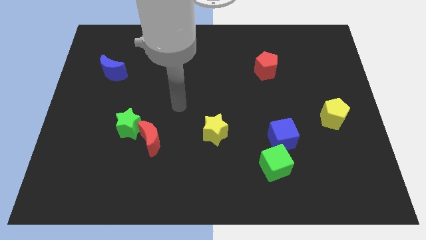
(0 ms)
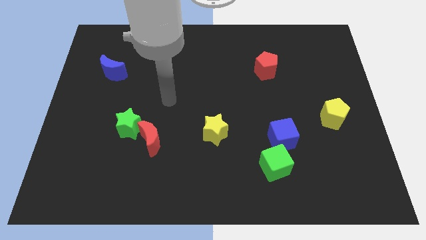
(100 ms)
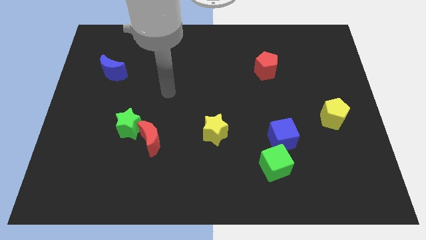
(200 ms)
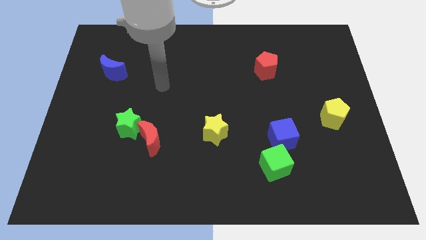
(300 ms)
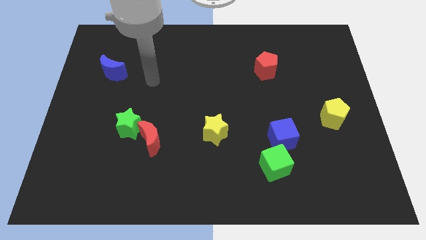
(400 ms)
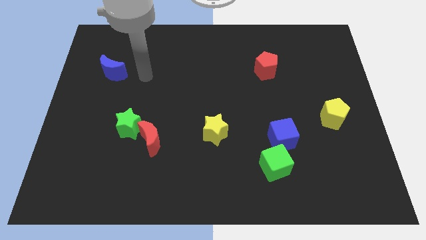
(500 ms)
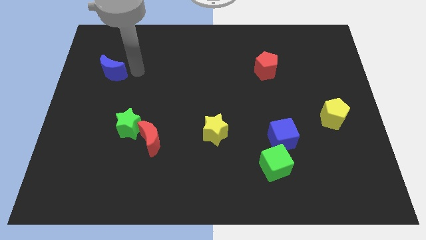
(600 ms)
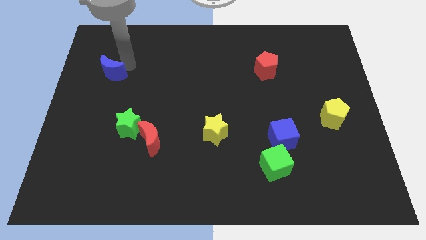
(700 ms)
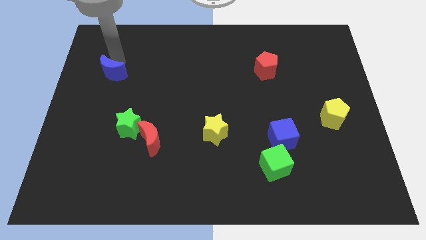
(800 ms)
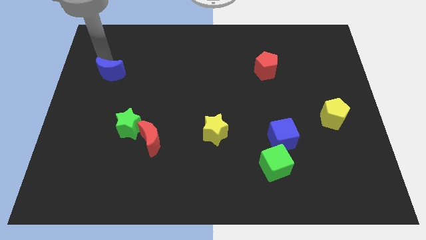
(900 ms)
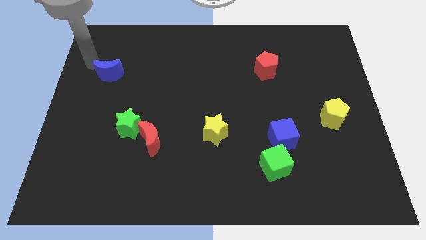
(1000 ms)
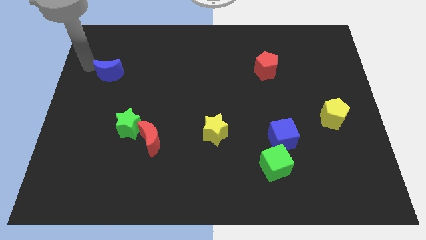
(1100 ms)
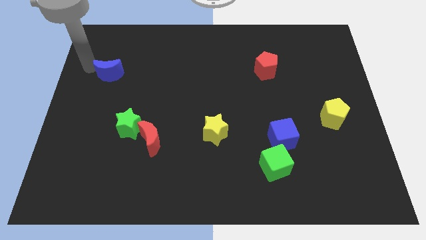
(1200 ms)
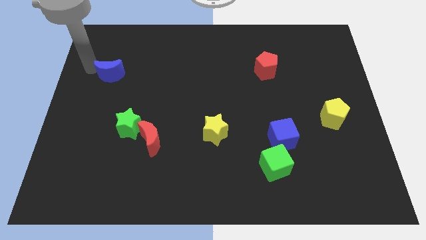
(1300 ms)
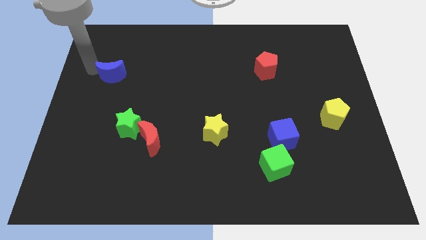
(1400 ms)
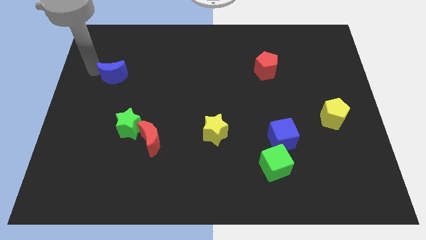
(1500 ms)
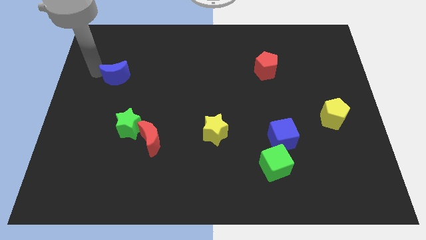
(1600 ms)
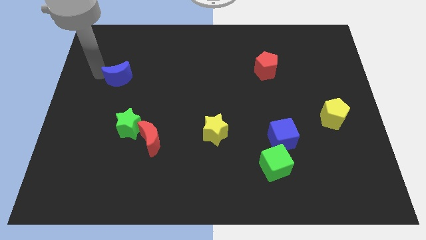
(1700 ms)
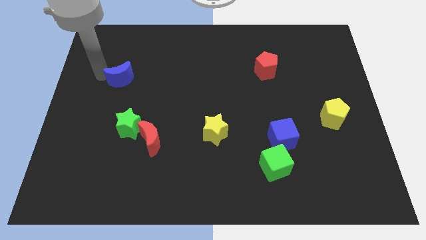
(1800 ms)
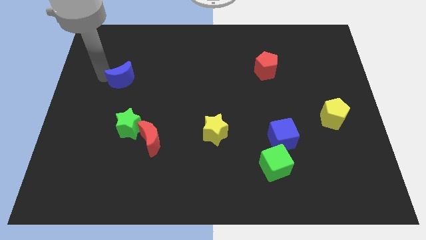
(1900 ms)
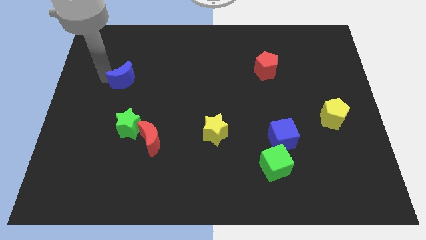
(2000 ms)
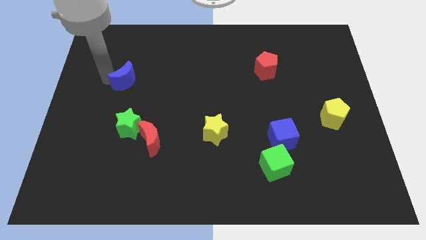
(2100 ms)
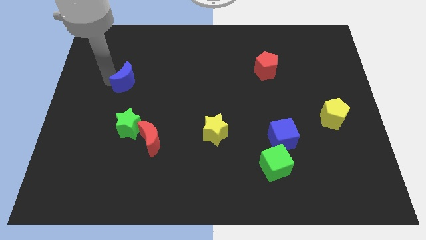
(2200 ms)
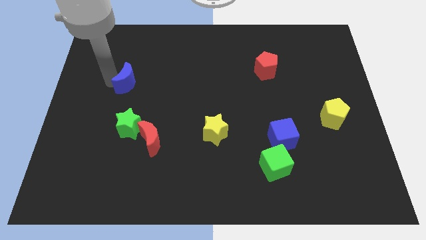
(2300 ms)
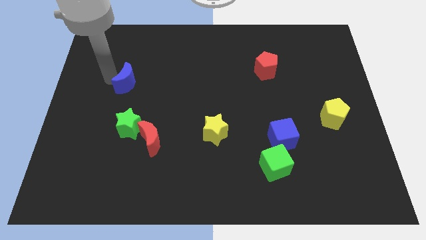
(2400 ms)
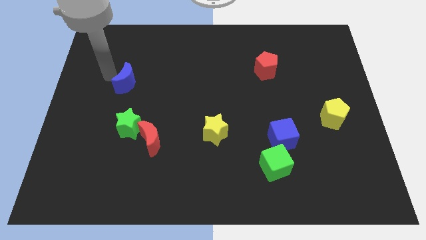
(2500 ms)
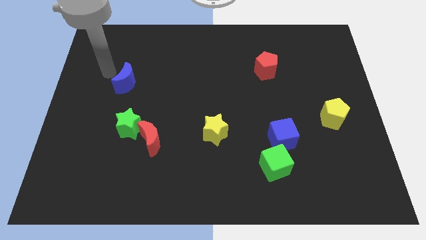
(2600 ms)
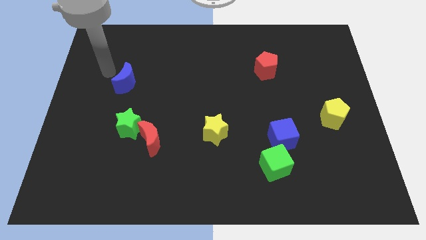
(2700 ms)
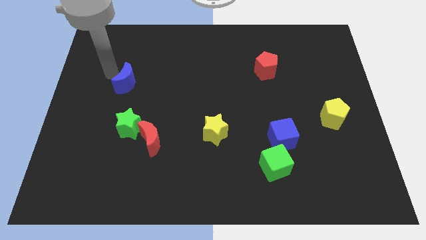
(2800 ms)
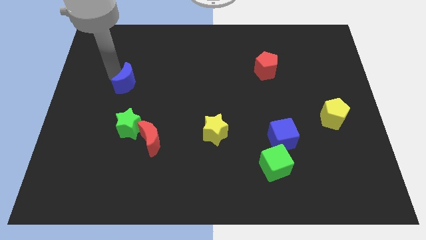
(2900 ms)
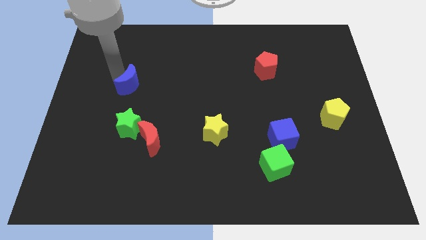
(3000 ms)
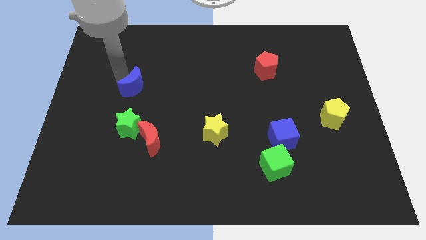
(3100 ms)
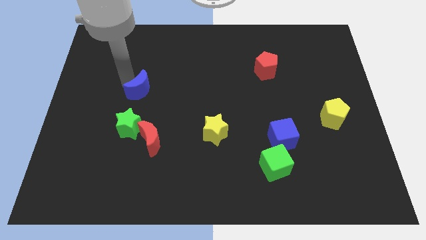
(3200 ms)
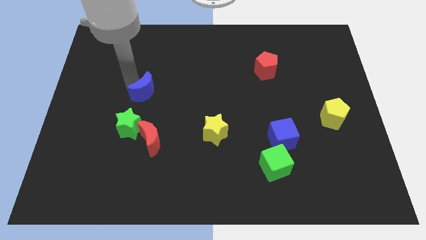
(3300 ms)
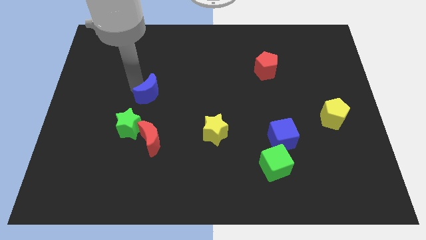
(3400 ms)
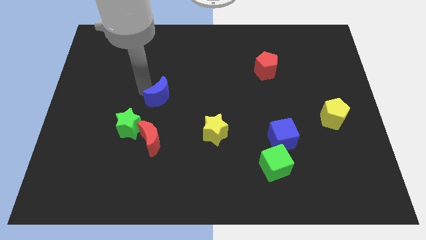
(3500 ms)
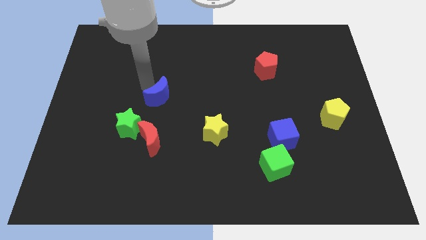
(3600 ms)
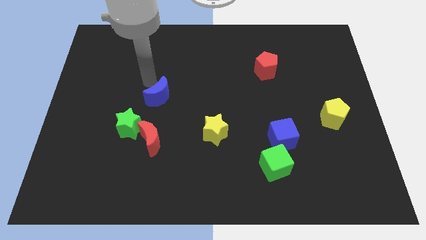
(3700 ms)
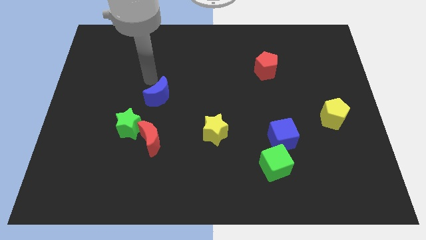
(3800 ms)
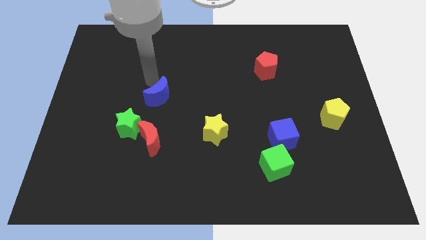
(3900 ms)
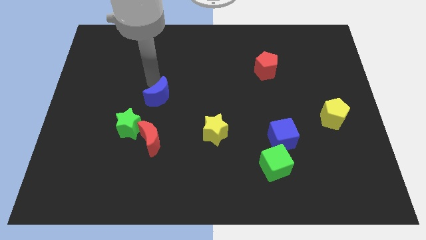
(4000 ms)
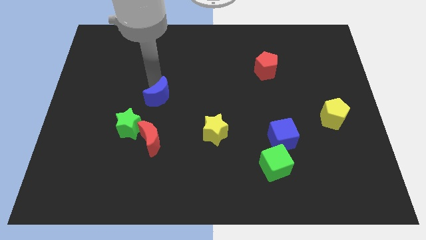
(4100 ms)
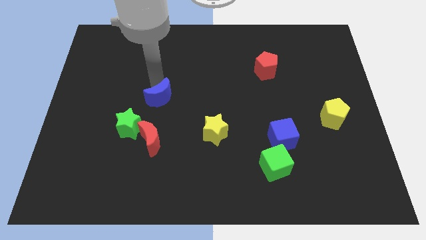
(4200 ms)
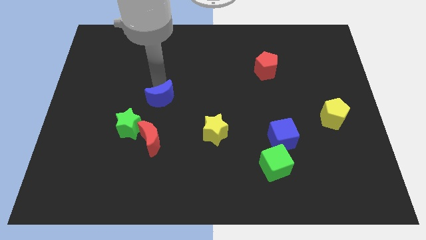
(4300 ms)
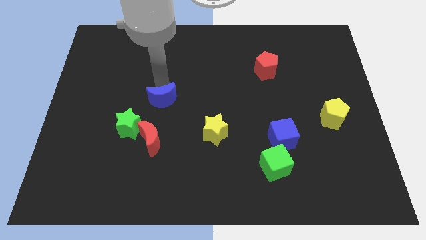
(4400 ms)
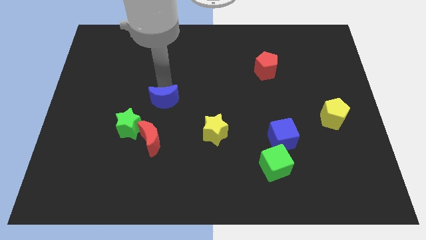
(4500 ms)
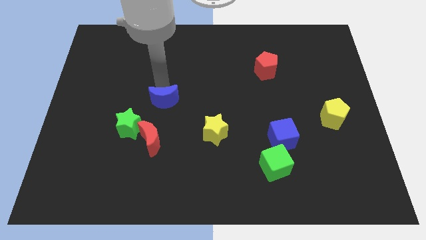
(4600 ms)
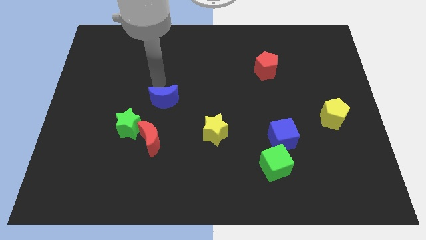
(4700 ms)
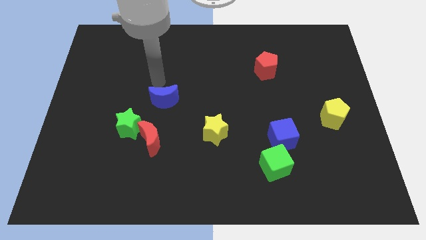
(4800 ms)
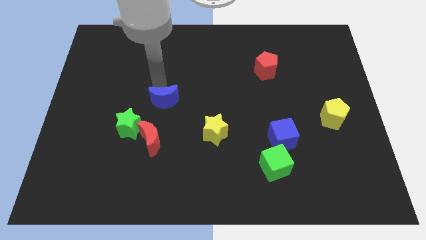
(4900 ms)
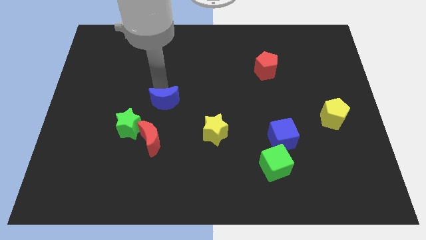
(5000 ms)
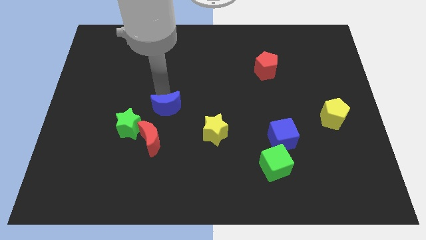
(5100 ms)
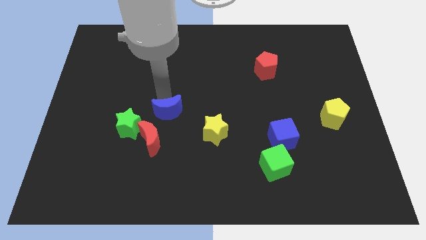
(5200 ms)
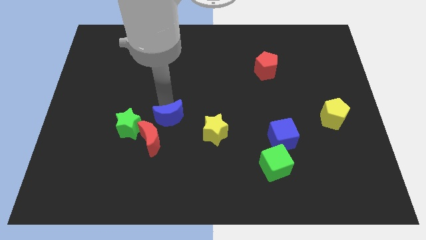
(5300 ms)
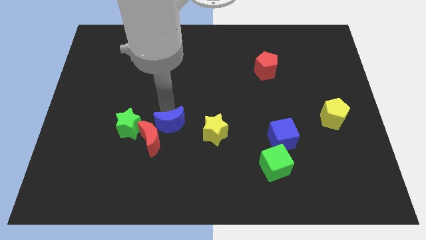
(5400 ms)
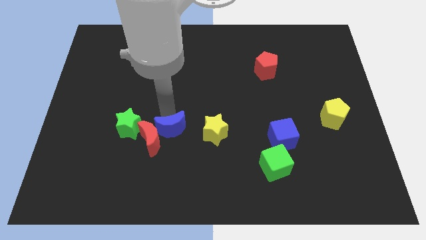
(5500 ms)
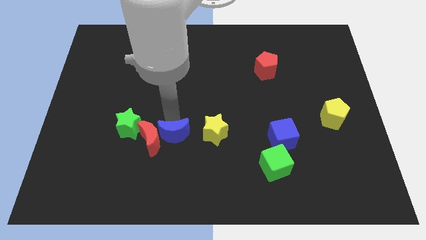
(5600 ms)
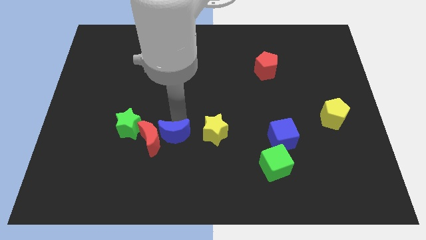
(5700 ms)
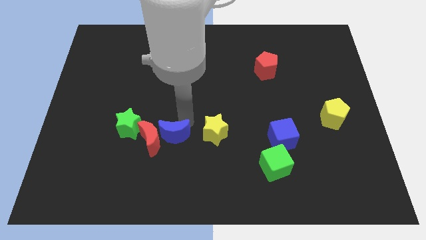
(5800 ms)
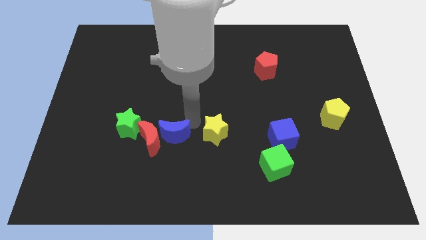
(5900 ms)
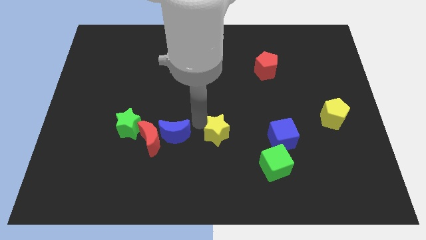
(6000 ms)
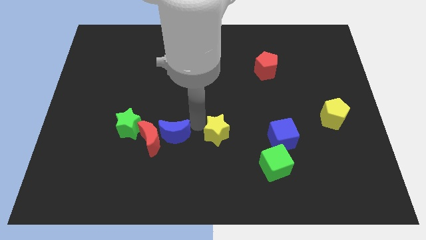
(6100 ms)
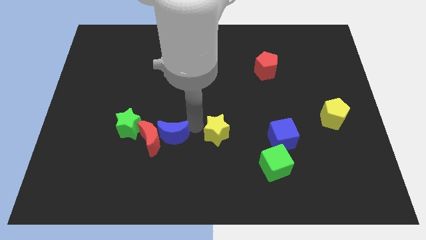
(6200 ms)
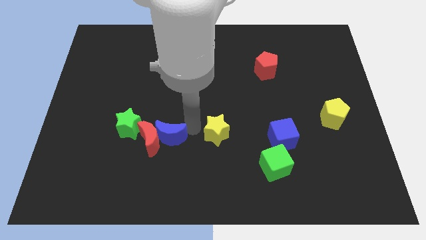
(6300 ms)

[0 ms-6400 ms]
push the blue moon to the bottom right side of the green star

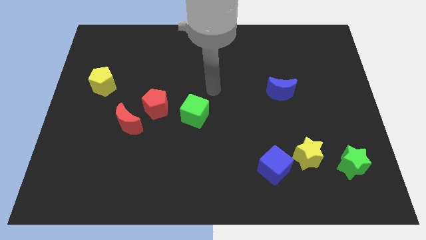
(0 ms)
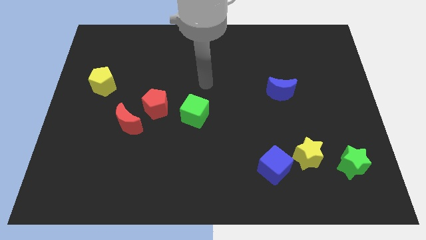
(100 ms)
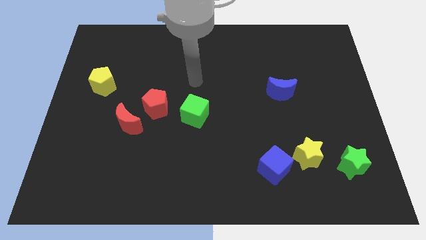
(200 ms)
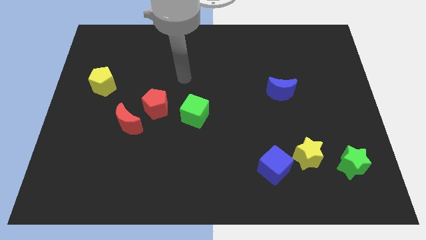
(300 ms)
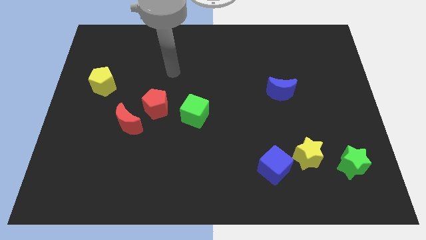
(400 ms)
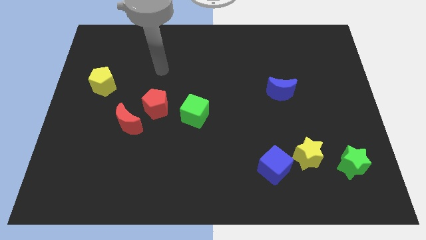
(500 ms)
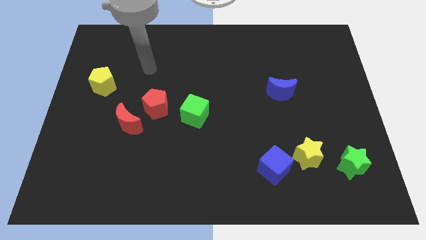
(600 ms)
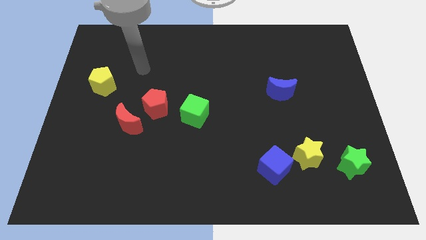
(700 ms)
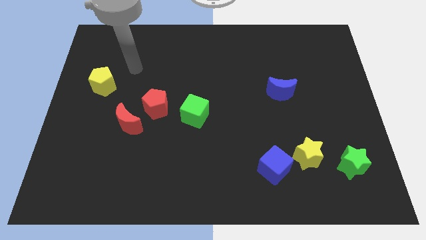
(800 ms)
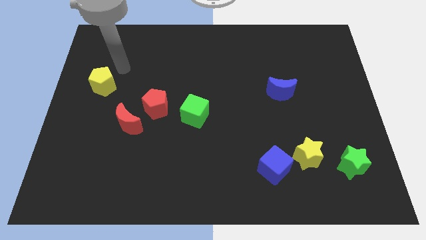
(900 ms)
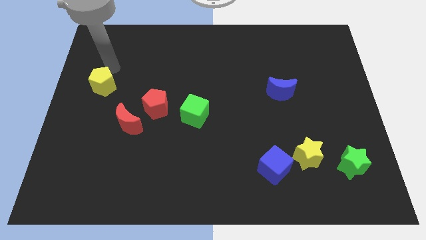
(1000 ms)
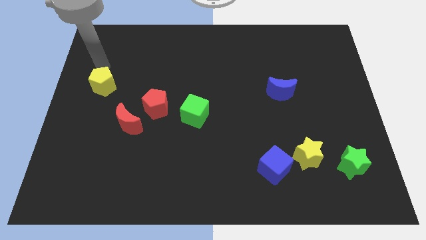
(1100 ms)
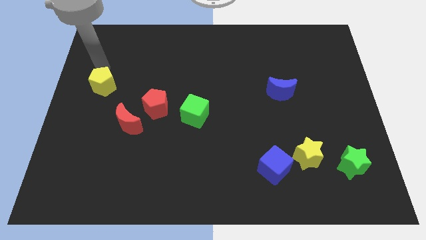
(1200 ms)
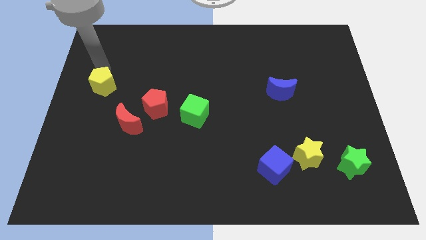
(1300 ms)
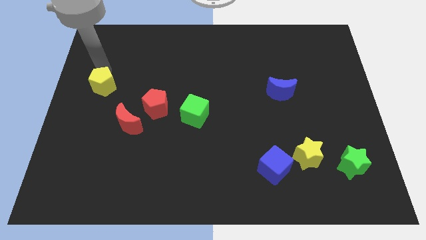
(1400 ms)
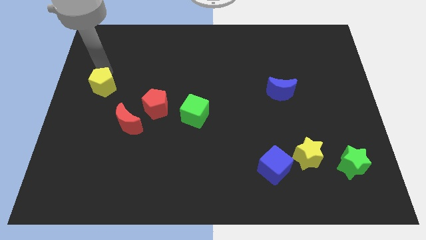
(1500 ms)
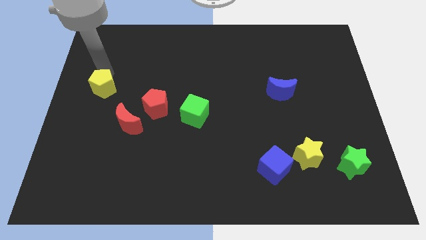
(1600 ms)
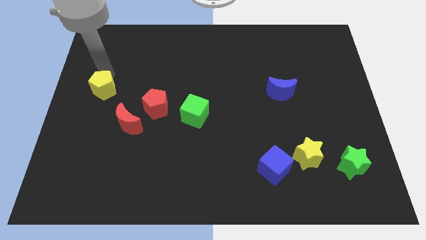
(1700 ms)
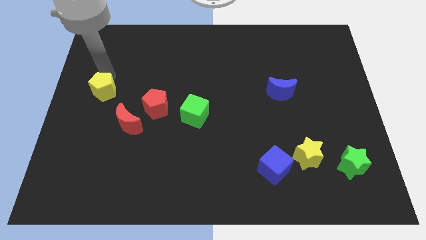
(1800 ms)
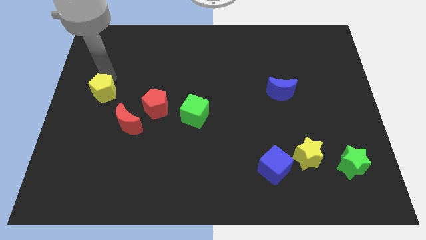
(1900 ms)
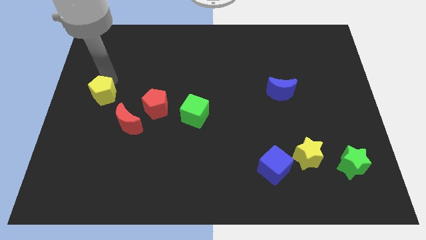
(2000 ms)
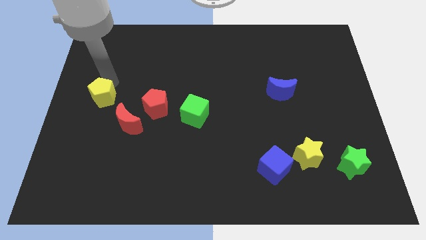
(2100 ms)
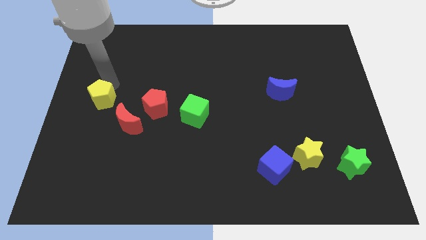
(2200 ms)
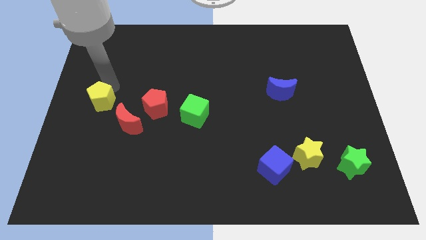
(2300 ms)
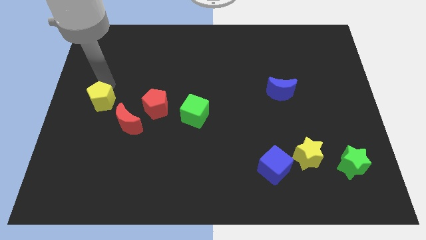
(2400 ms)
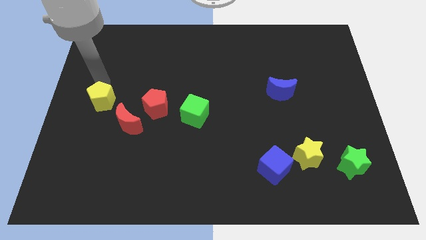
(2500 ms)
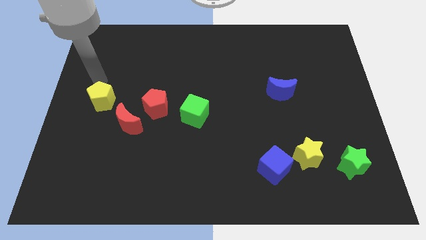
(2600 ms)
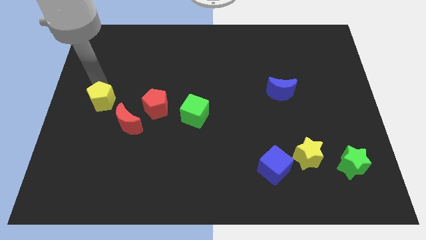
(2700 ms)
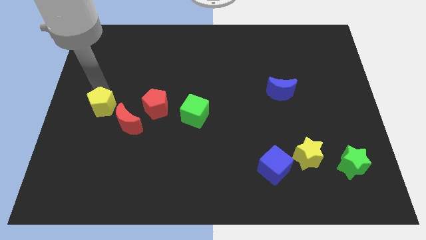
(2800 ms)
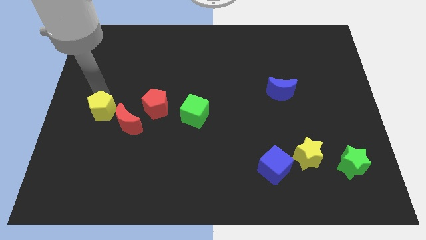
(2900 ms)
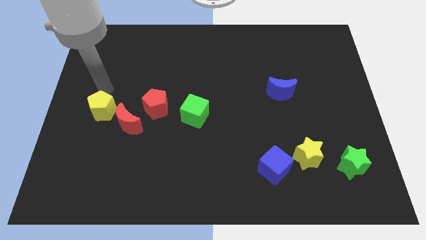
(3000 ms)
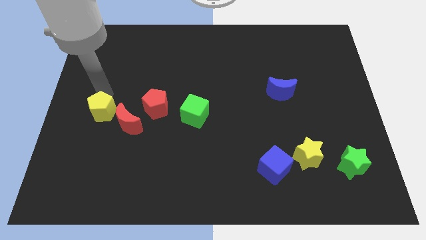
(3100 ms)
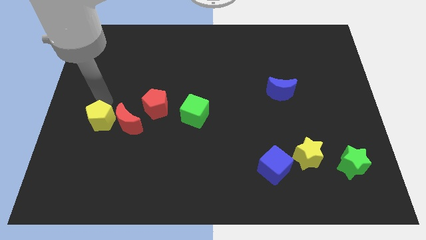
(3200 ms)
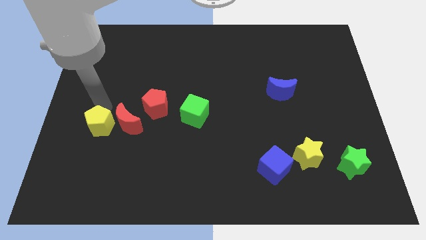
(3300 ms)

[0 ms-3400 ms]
push the yellow pentagon to the bottom left of the red moon
